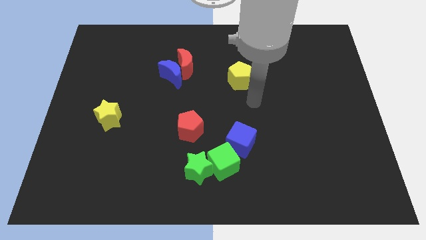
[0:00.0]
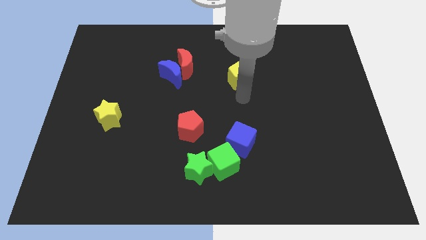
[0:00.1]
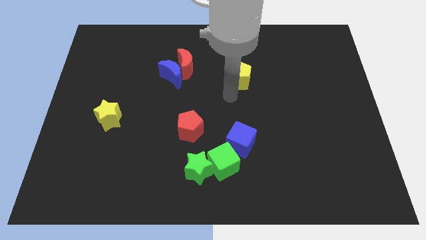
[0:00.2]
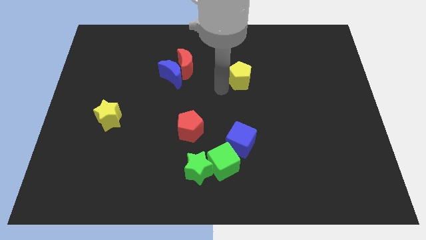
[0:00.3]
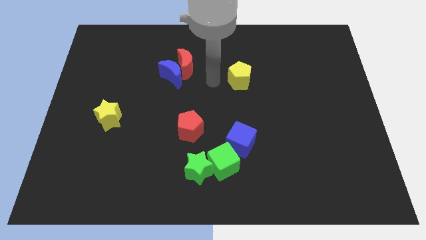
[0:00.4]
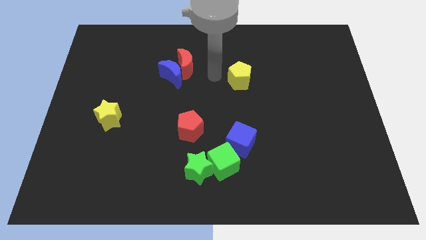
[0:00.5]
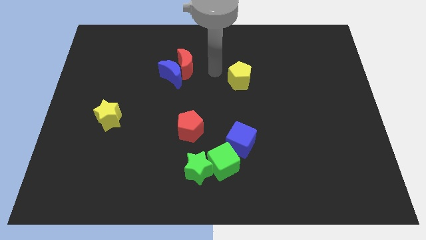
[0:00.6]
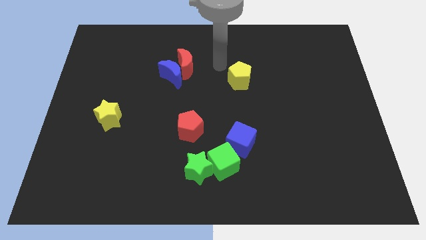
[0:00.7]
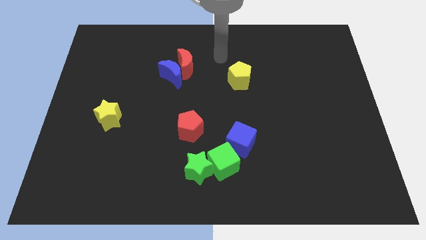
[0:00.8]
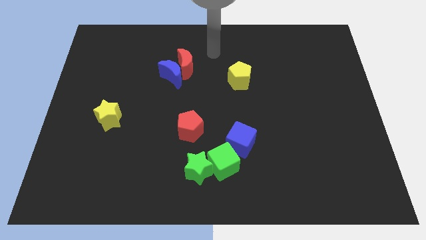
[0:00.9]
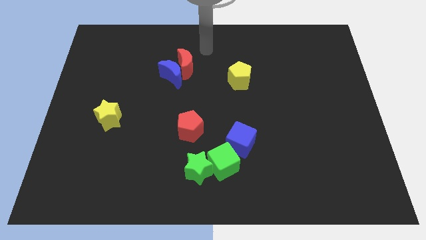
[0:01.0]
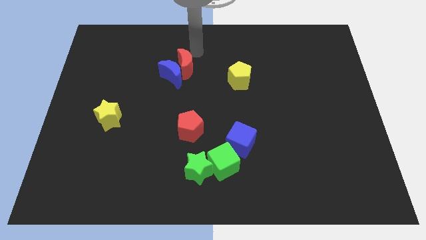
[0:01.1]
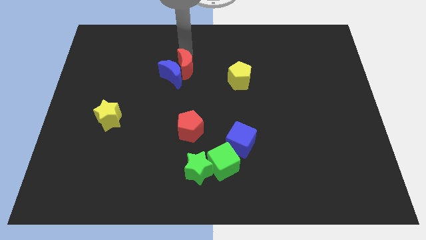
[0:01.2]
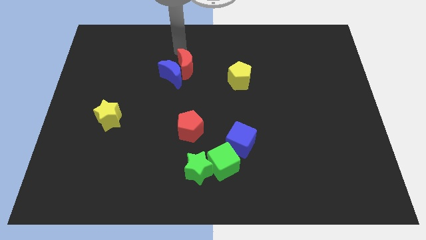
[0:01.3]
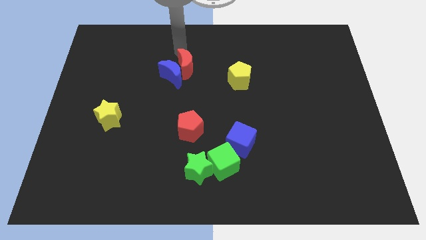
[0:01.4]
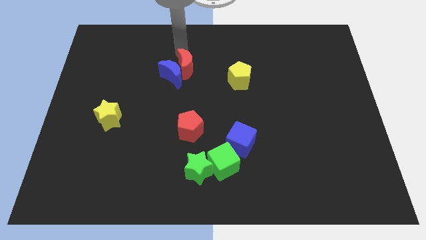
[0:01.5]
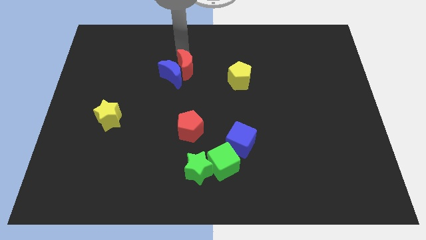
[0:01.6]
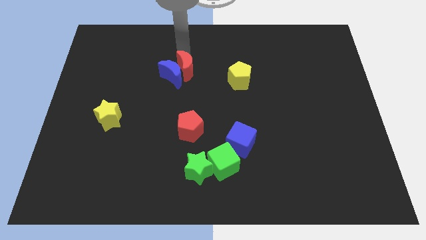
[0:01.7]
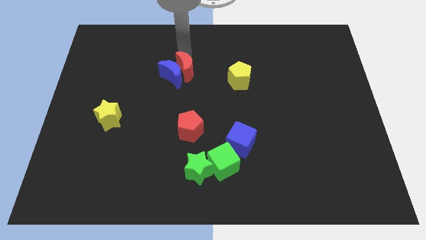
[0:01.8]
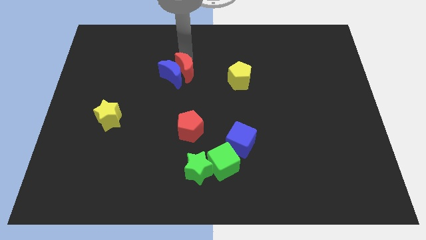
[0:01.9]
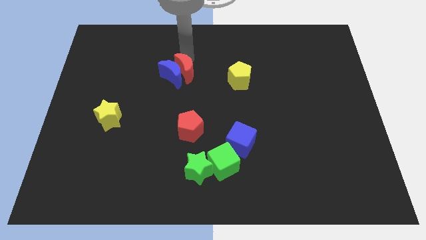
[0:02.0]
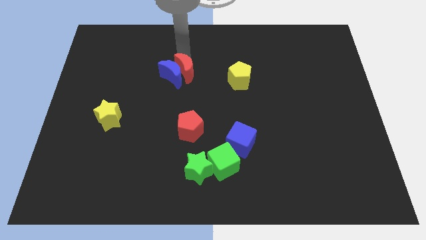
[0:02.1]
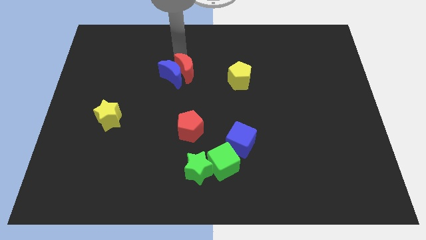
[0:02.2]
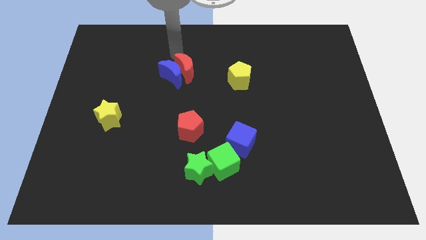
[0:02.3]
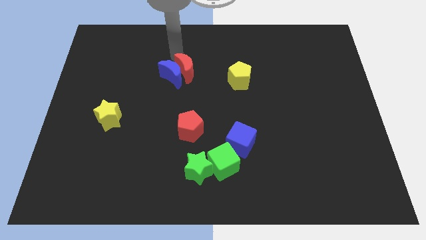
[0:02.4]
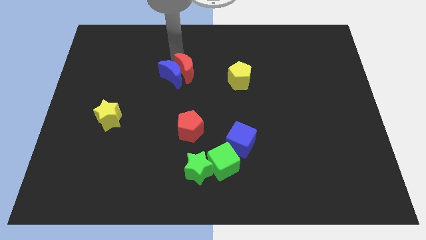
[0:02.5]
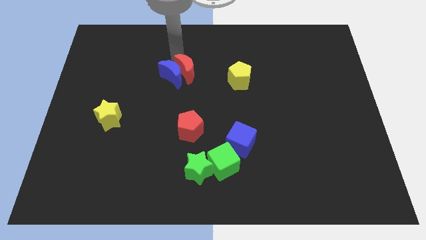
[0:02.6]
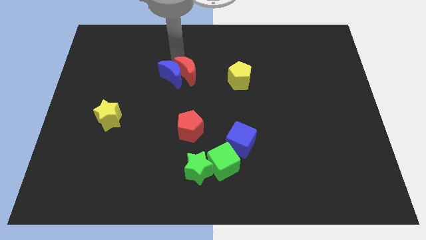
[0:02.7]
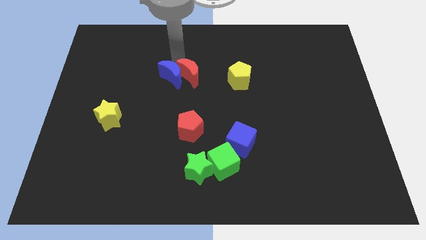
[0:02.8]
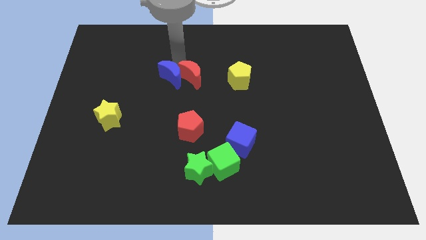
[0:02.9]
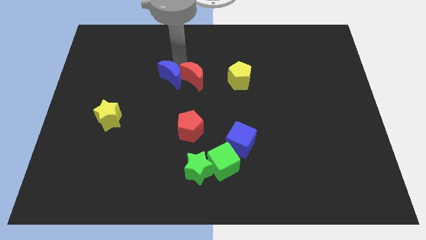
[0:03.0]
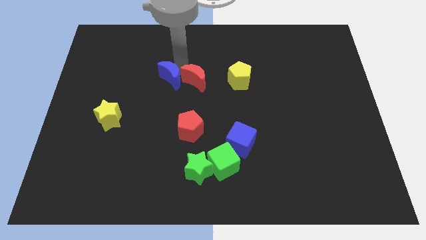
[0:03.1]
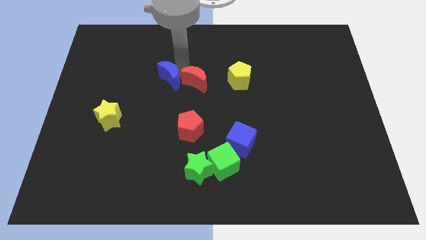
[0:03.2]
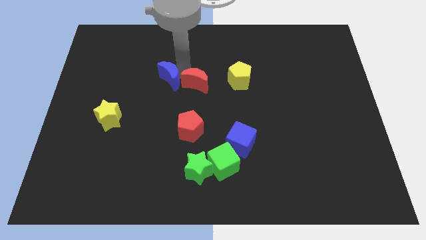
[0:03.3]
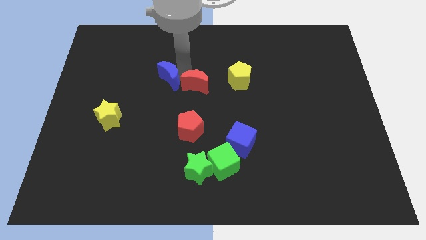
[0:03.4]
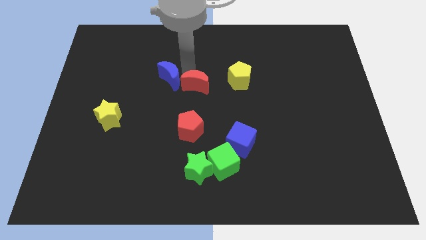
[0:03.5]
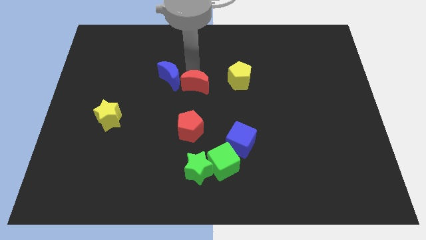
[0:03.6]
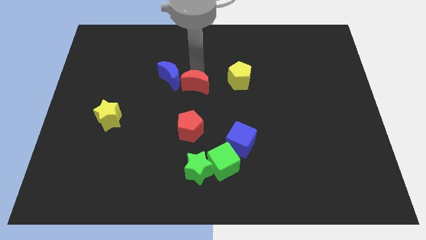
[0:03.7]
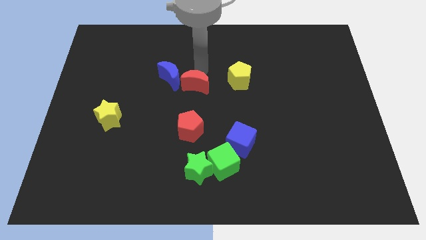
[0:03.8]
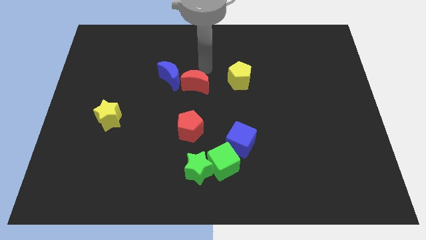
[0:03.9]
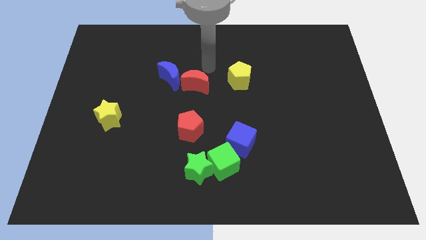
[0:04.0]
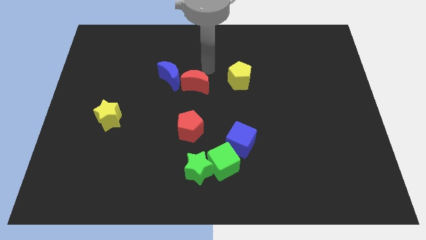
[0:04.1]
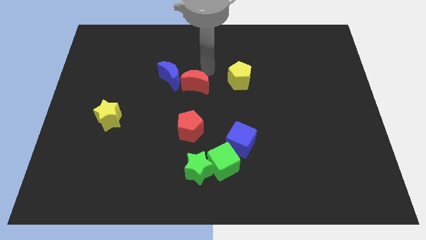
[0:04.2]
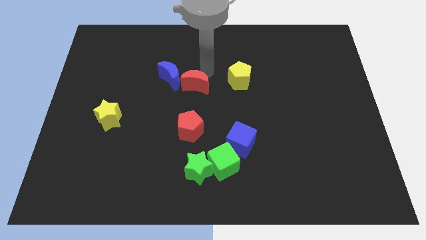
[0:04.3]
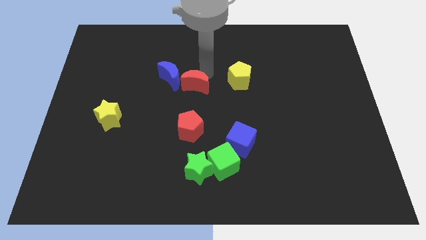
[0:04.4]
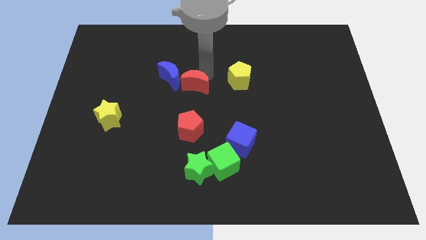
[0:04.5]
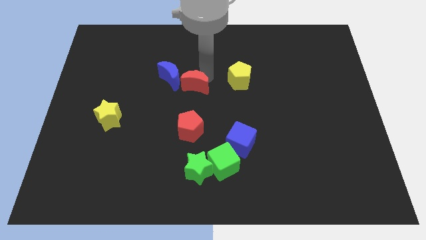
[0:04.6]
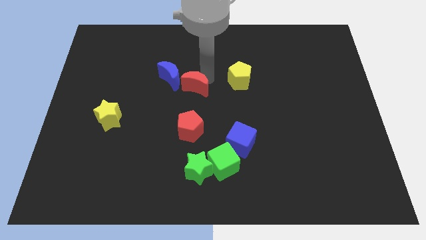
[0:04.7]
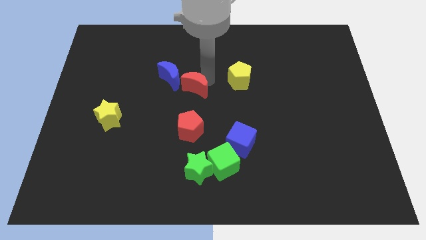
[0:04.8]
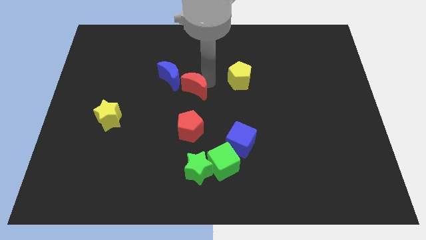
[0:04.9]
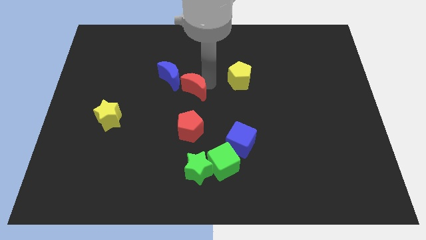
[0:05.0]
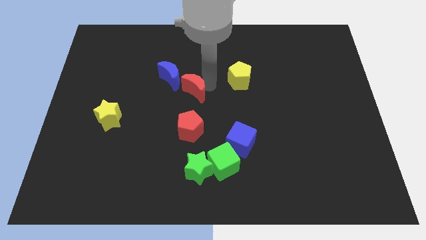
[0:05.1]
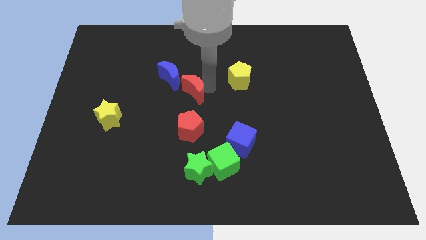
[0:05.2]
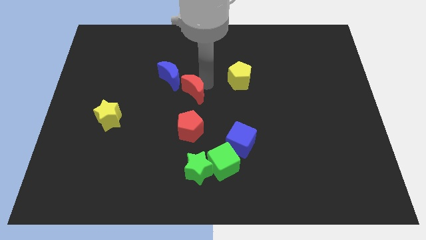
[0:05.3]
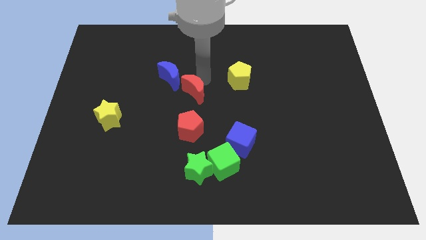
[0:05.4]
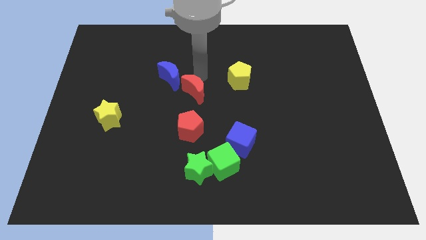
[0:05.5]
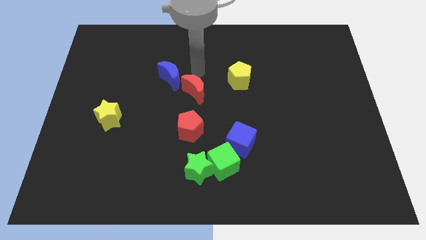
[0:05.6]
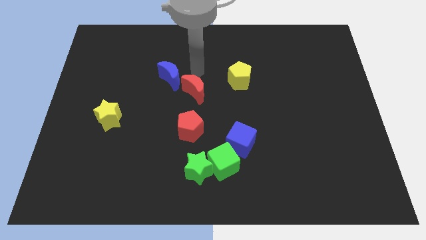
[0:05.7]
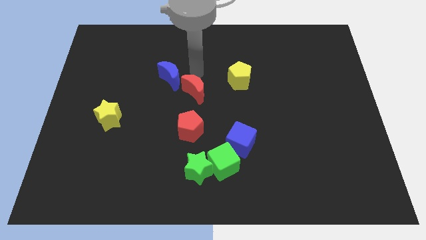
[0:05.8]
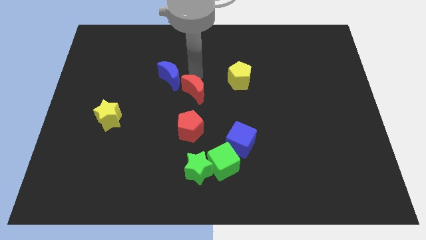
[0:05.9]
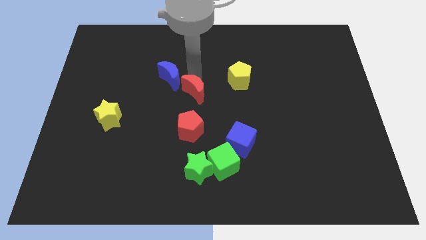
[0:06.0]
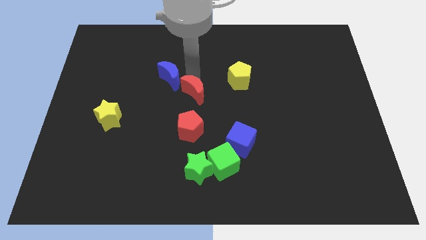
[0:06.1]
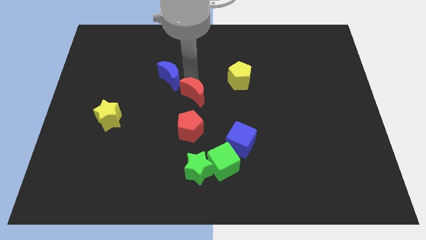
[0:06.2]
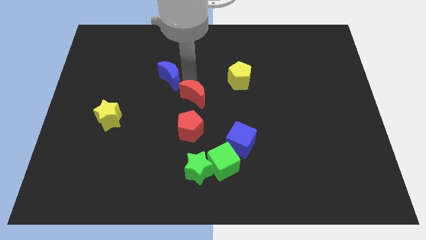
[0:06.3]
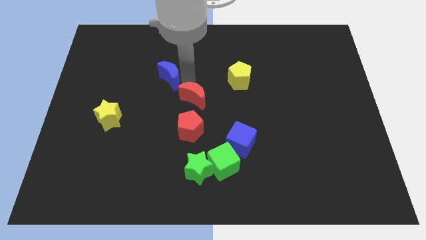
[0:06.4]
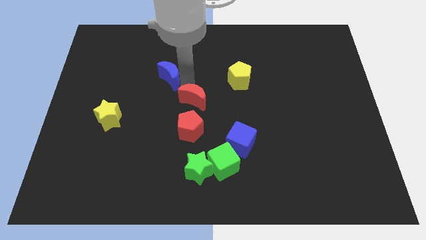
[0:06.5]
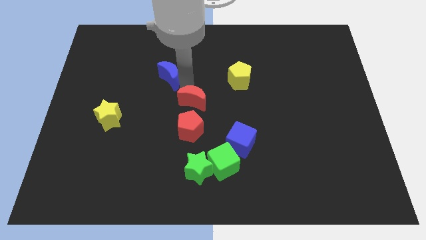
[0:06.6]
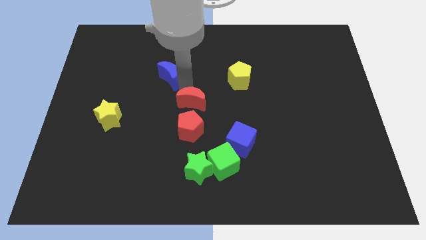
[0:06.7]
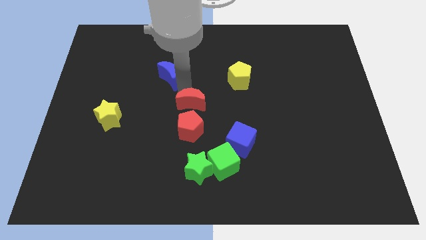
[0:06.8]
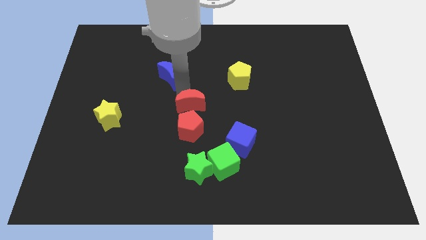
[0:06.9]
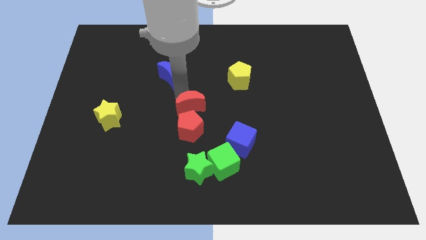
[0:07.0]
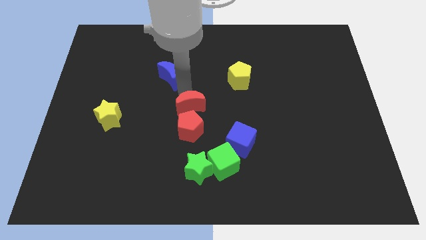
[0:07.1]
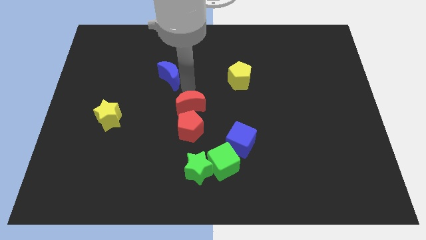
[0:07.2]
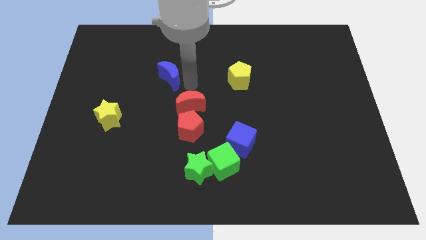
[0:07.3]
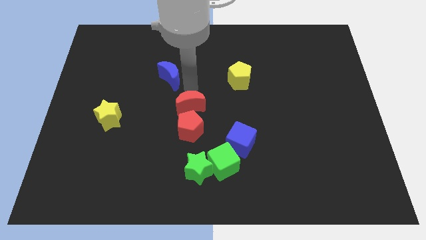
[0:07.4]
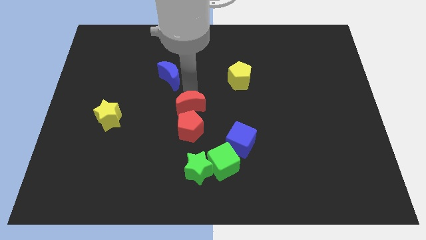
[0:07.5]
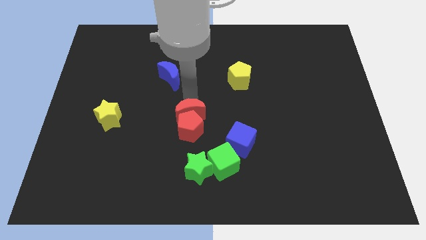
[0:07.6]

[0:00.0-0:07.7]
put the red moon to the red pentagon
